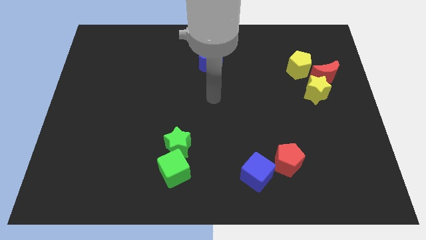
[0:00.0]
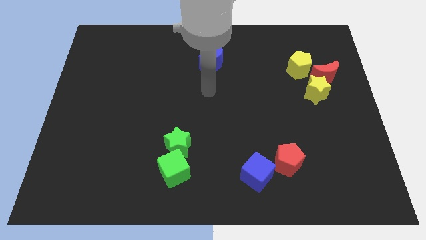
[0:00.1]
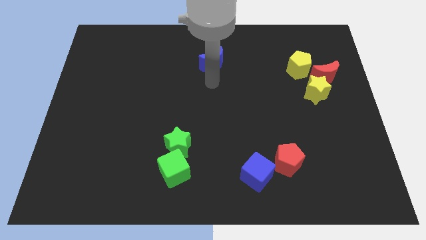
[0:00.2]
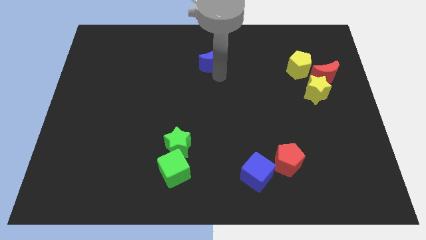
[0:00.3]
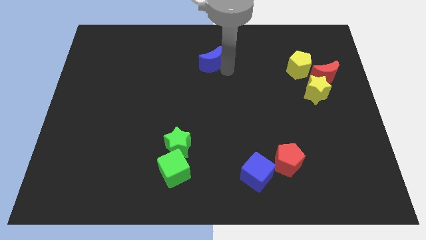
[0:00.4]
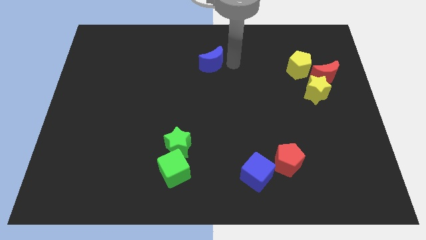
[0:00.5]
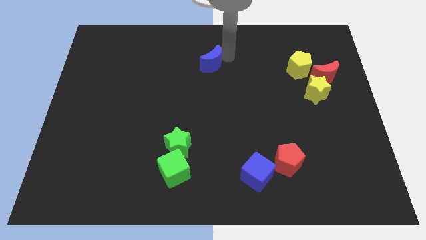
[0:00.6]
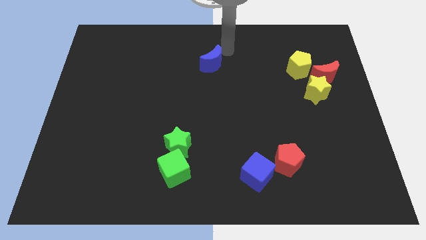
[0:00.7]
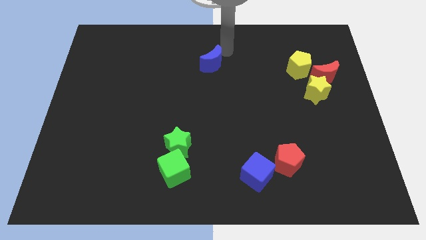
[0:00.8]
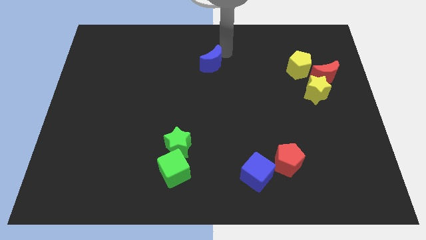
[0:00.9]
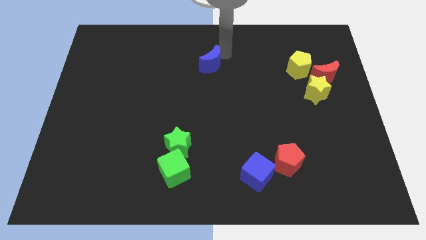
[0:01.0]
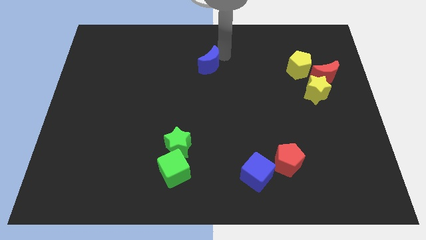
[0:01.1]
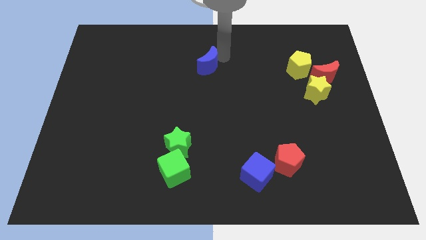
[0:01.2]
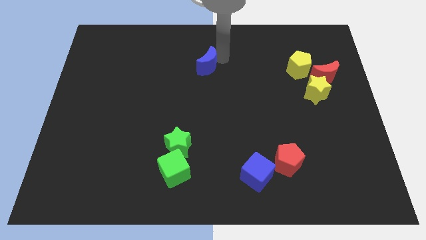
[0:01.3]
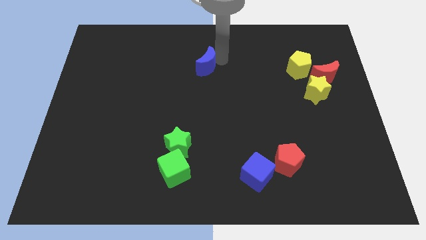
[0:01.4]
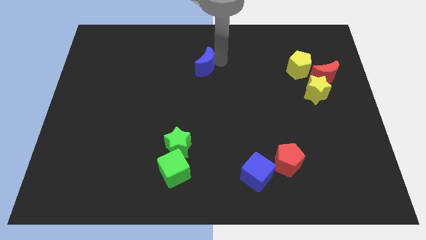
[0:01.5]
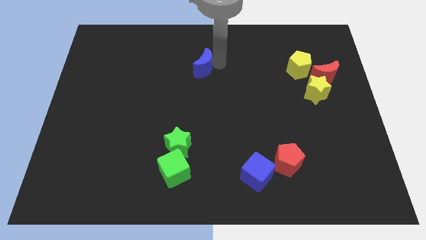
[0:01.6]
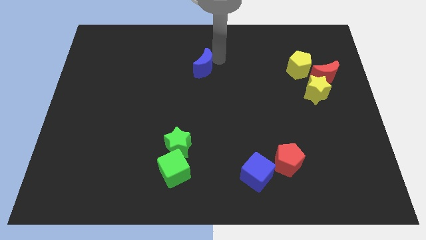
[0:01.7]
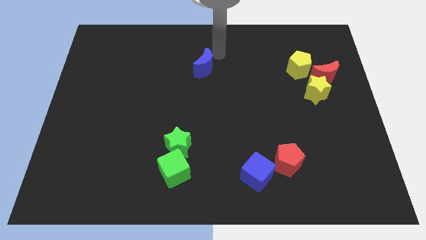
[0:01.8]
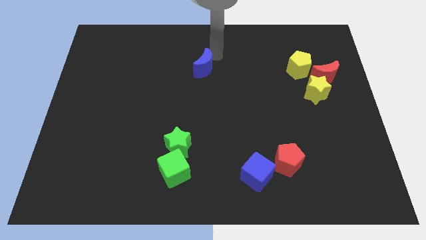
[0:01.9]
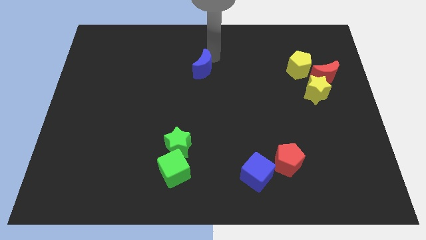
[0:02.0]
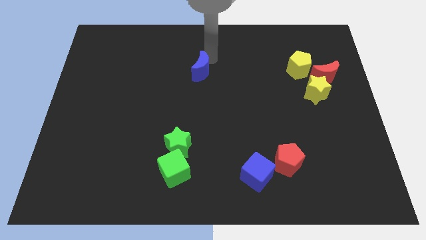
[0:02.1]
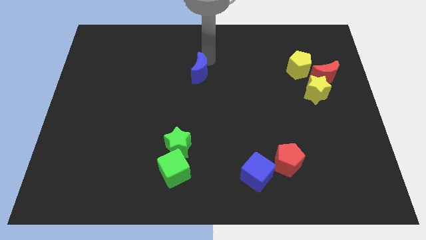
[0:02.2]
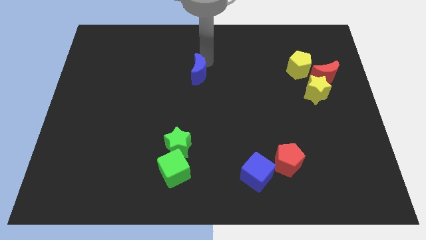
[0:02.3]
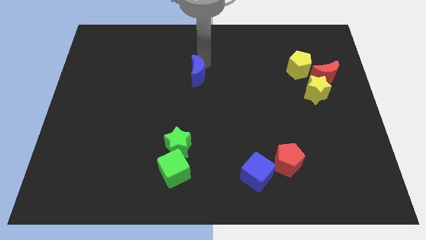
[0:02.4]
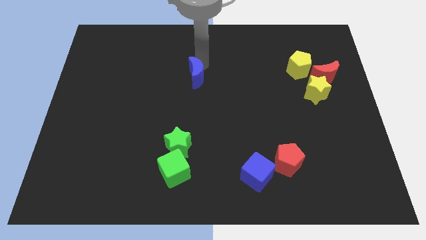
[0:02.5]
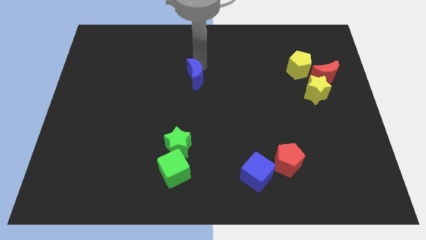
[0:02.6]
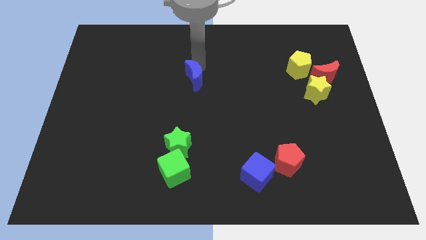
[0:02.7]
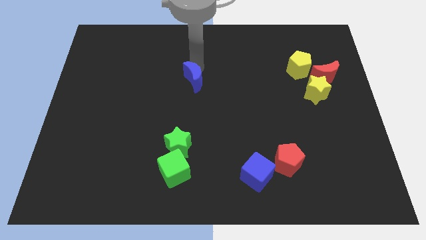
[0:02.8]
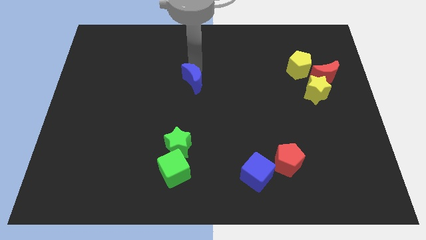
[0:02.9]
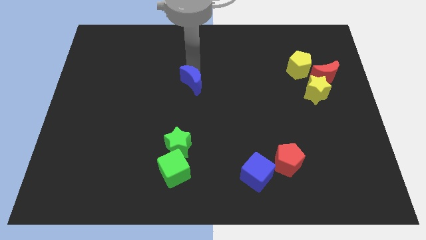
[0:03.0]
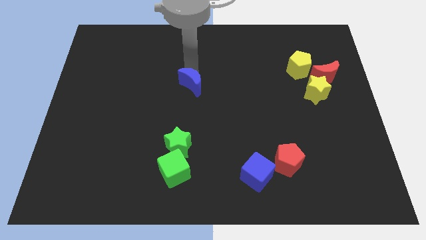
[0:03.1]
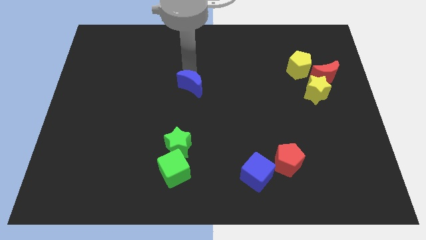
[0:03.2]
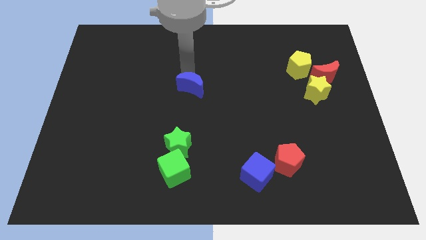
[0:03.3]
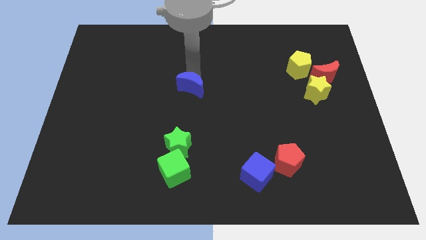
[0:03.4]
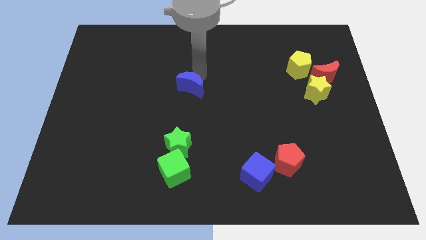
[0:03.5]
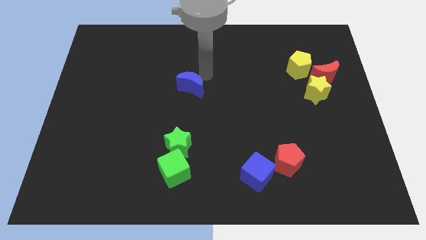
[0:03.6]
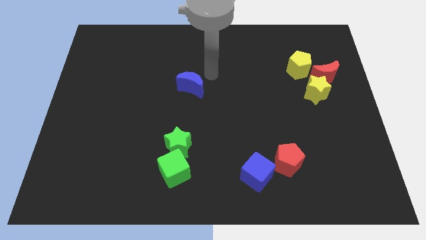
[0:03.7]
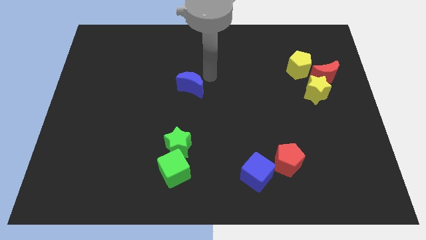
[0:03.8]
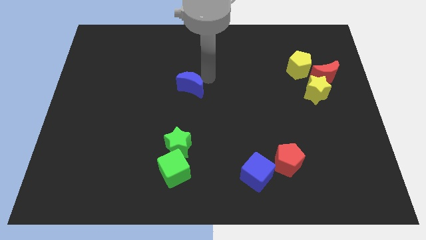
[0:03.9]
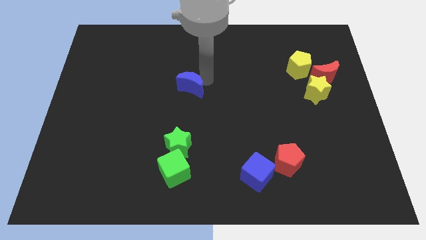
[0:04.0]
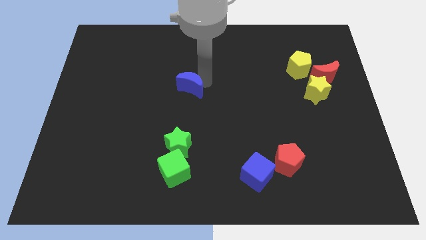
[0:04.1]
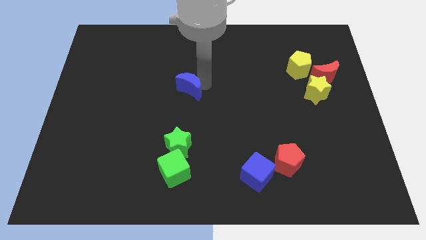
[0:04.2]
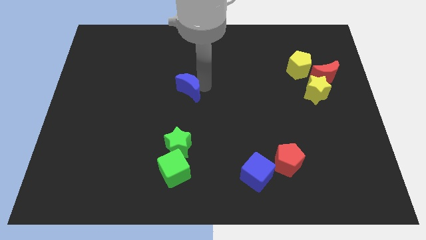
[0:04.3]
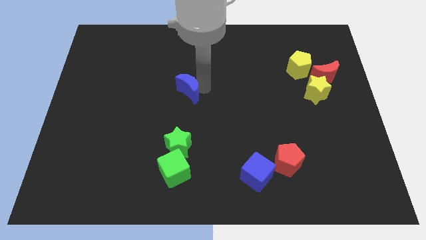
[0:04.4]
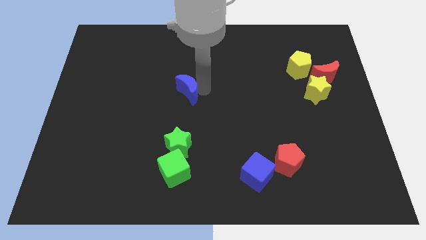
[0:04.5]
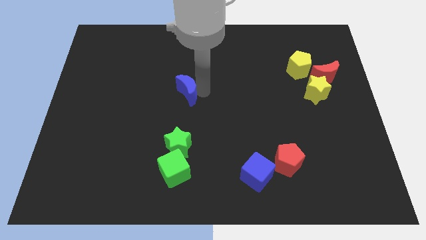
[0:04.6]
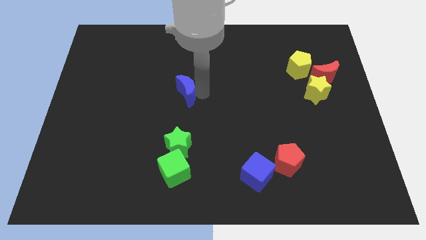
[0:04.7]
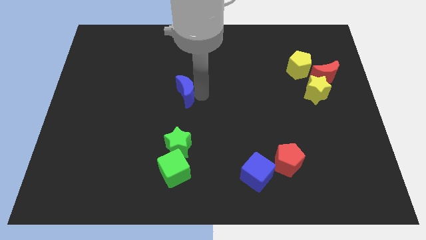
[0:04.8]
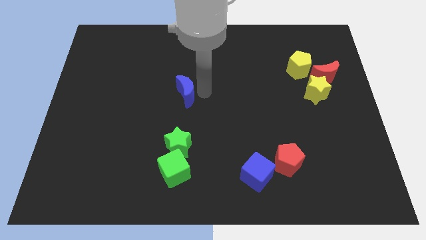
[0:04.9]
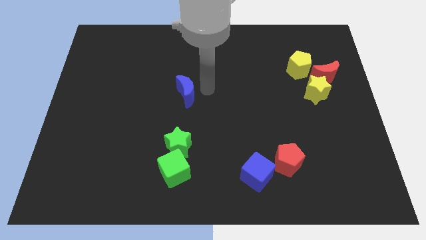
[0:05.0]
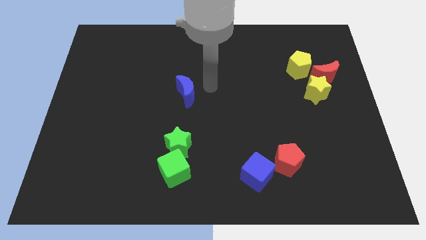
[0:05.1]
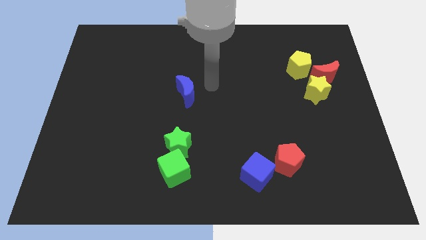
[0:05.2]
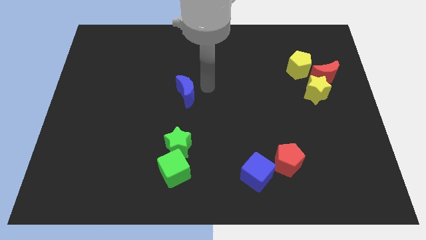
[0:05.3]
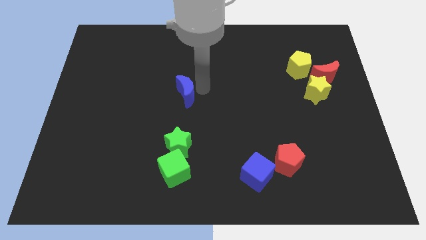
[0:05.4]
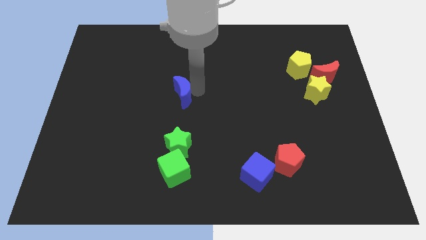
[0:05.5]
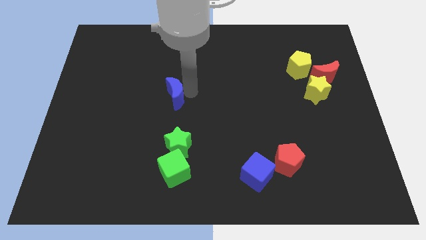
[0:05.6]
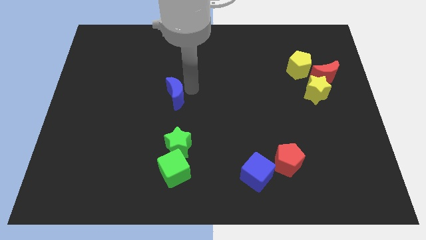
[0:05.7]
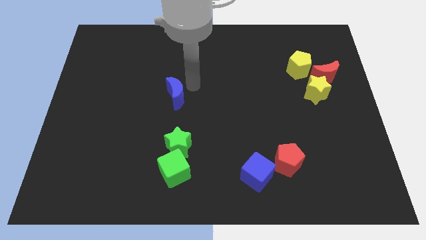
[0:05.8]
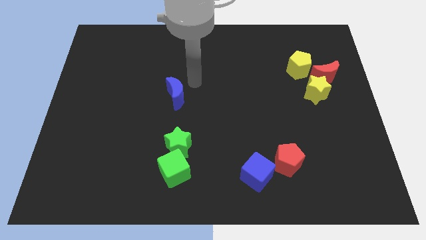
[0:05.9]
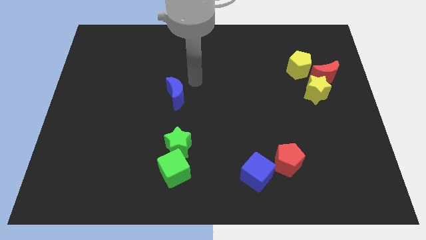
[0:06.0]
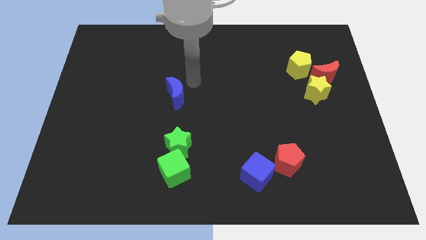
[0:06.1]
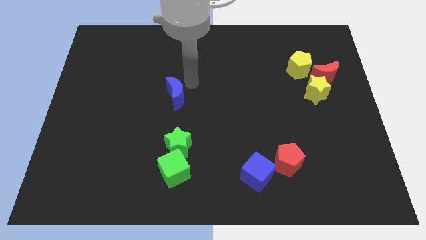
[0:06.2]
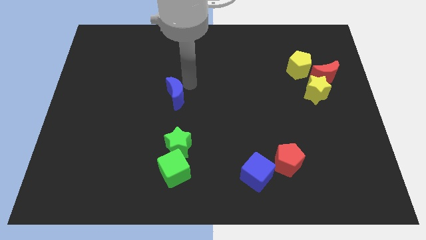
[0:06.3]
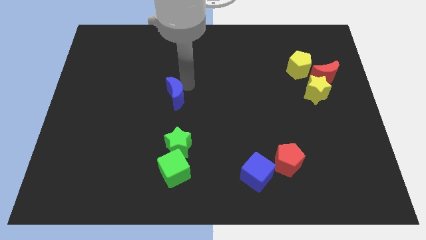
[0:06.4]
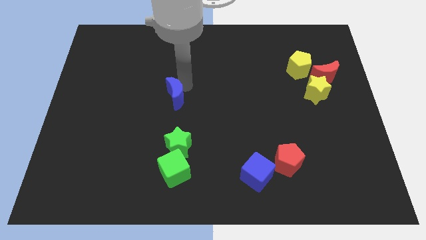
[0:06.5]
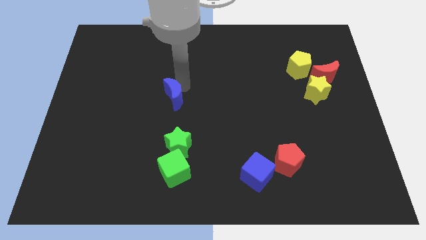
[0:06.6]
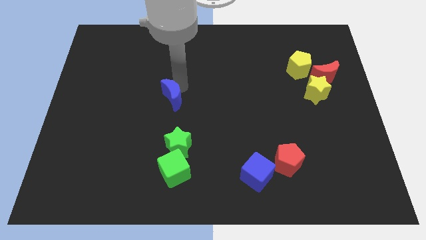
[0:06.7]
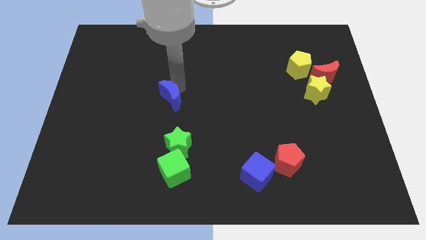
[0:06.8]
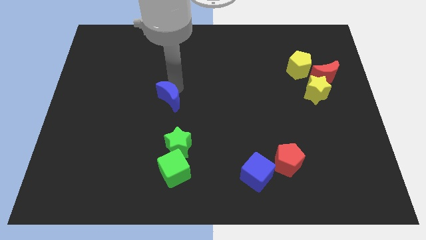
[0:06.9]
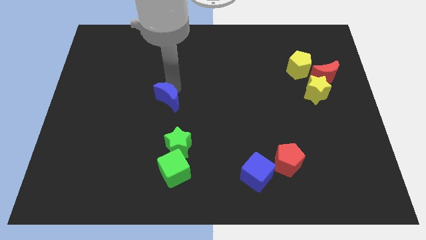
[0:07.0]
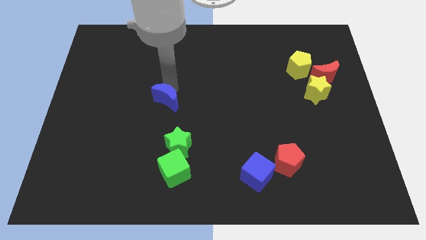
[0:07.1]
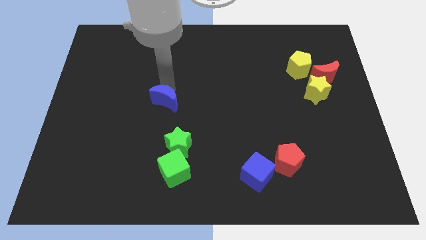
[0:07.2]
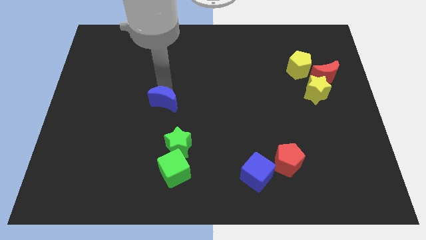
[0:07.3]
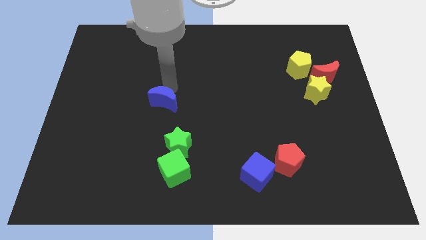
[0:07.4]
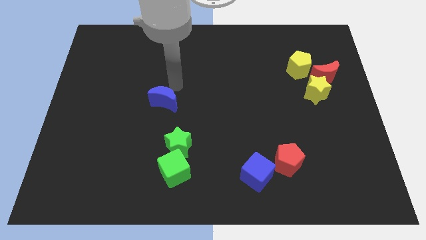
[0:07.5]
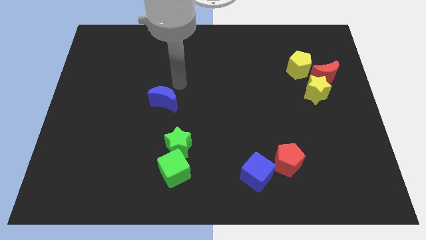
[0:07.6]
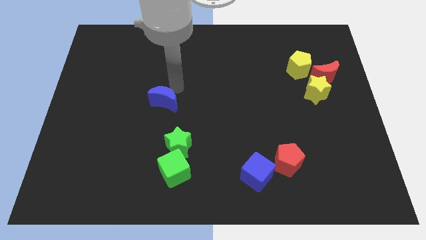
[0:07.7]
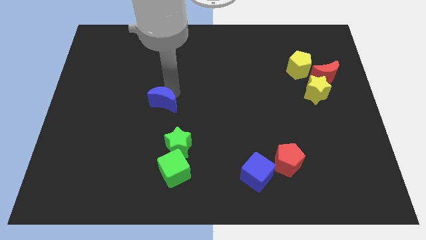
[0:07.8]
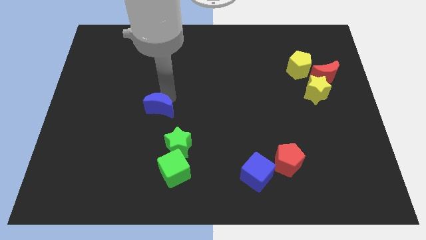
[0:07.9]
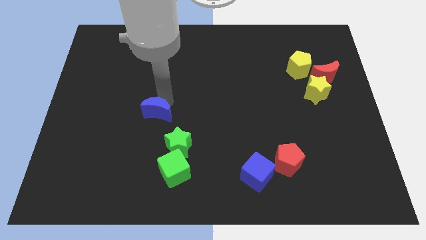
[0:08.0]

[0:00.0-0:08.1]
slide the blue moon down and to the left diagonally

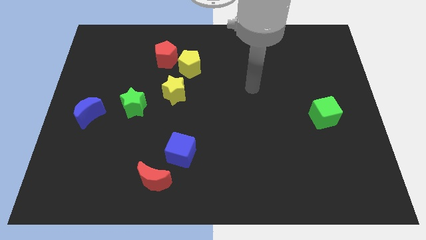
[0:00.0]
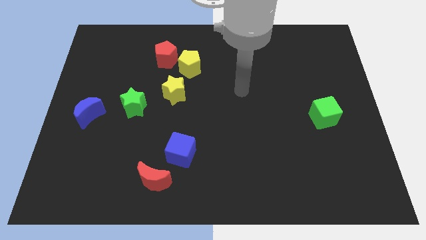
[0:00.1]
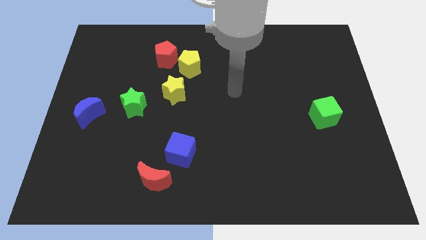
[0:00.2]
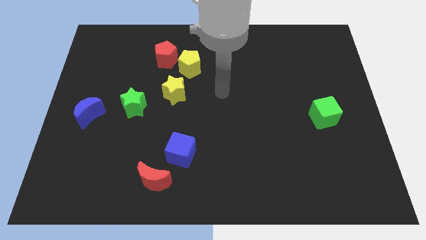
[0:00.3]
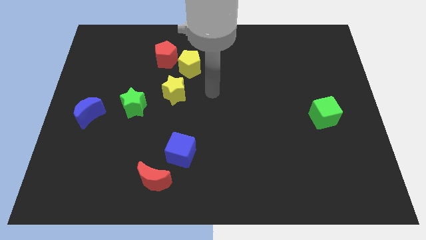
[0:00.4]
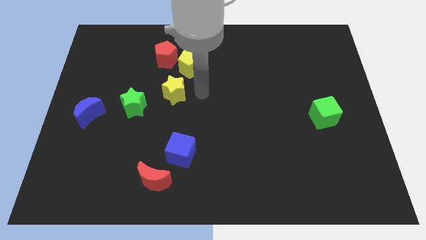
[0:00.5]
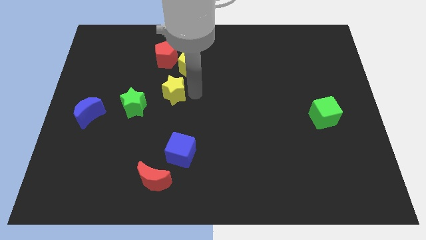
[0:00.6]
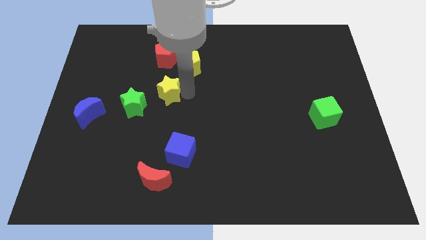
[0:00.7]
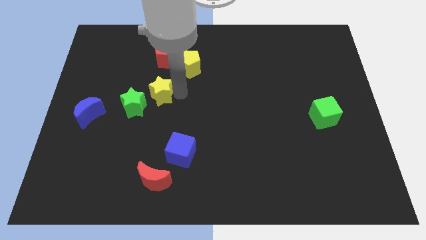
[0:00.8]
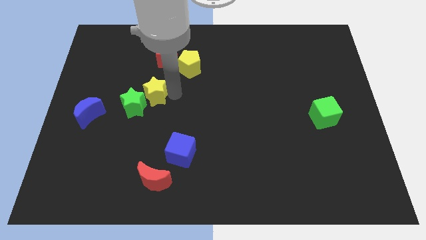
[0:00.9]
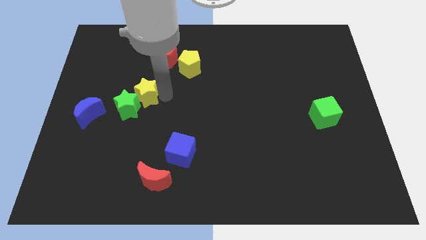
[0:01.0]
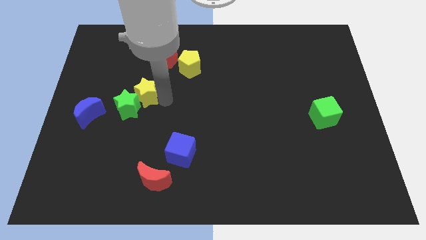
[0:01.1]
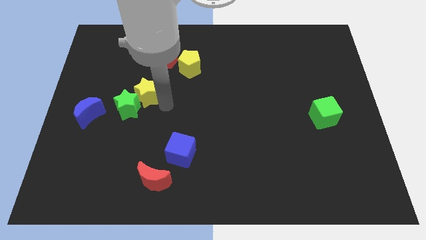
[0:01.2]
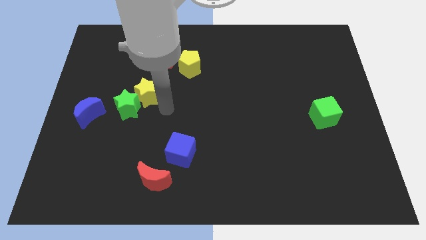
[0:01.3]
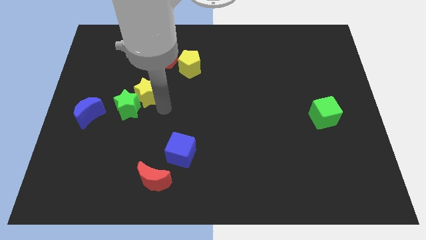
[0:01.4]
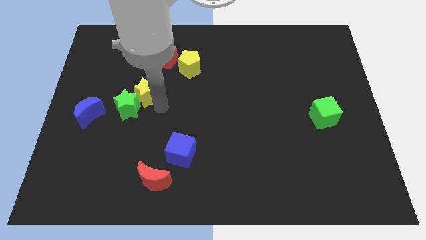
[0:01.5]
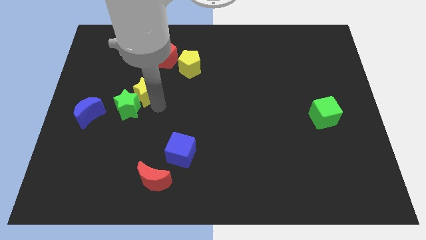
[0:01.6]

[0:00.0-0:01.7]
slide the yellow star left a little bit
